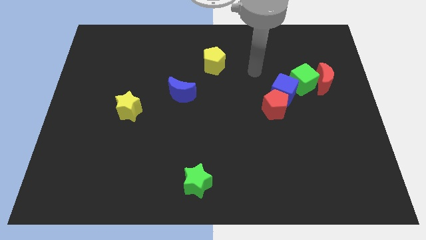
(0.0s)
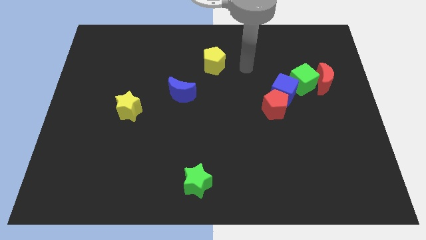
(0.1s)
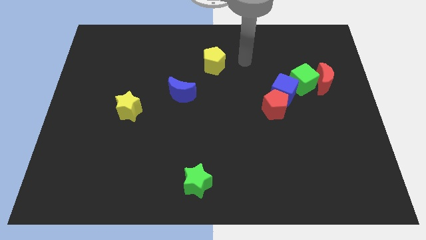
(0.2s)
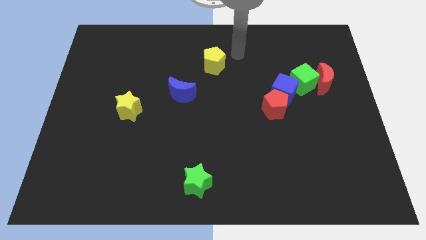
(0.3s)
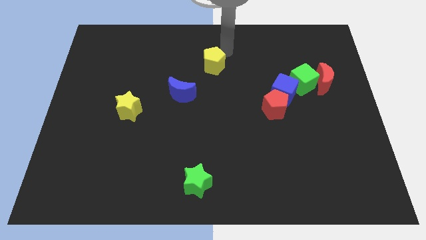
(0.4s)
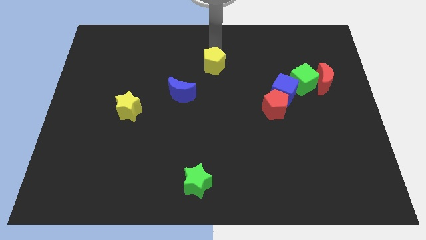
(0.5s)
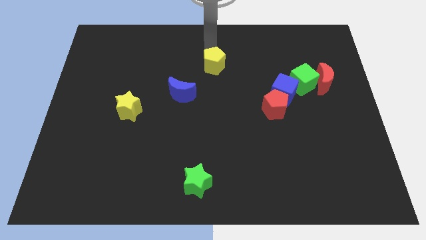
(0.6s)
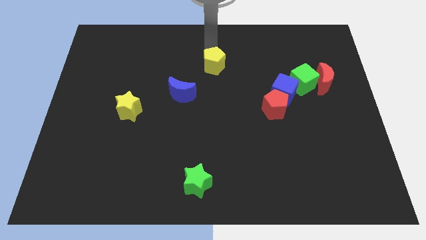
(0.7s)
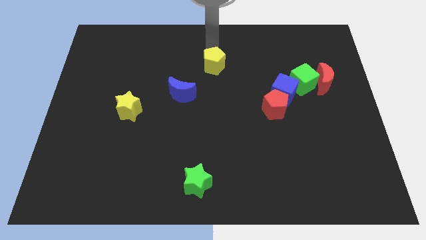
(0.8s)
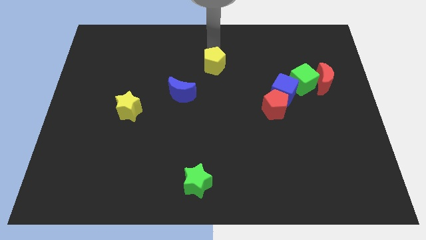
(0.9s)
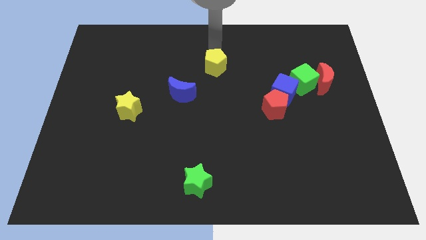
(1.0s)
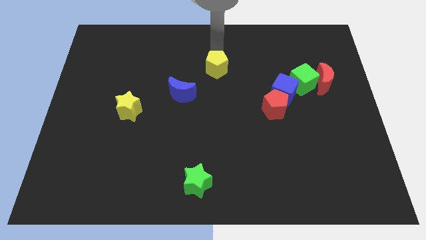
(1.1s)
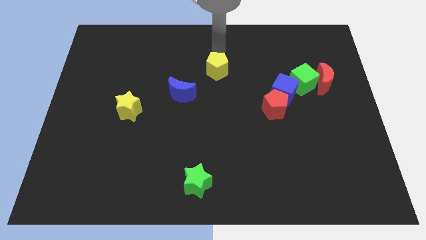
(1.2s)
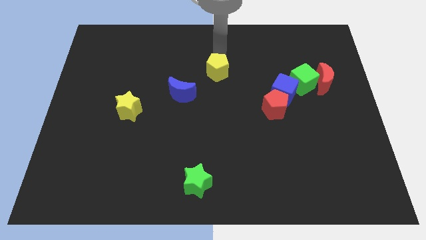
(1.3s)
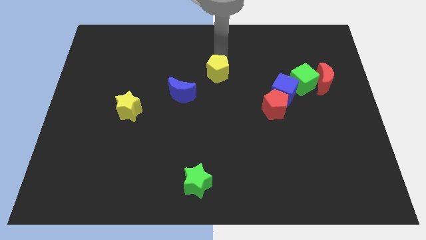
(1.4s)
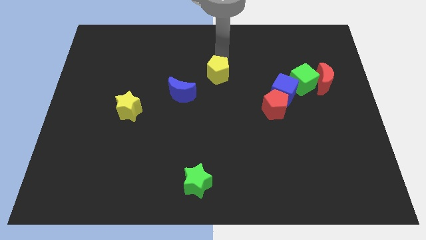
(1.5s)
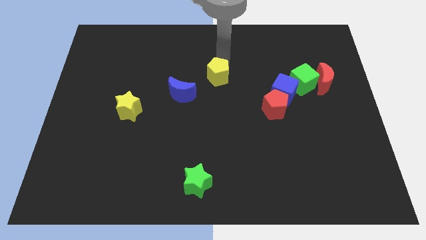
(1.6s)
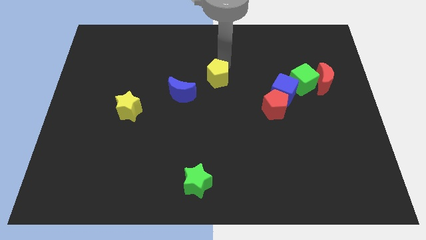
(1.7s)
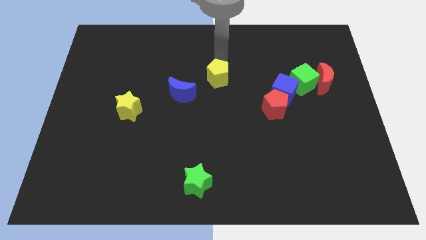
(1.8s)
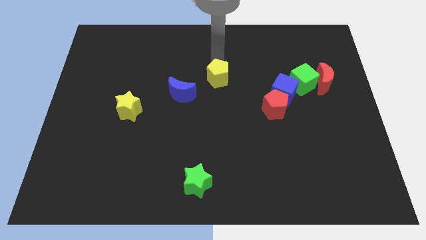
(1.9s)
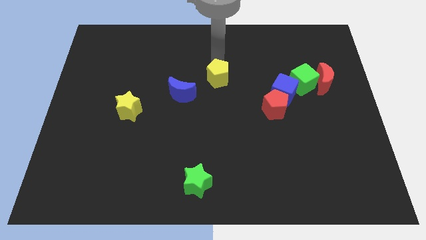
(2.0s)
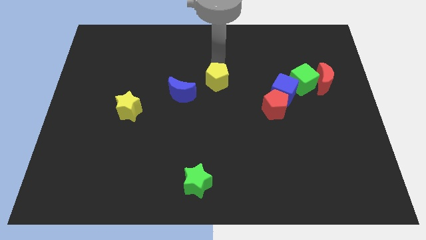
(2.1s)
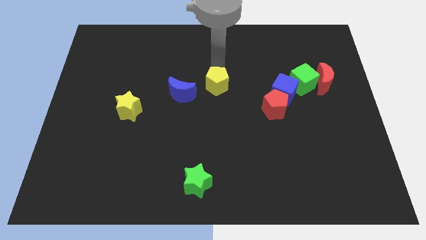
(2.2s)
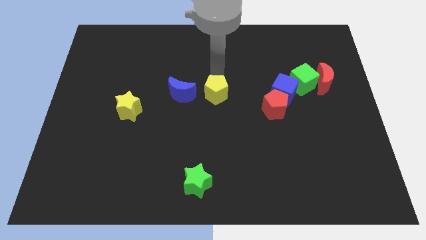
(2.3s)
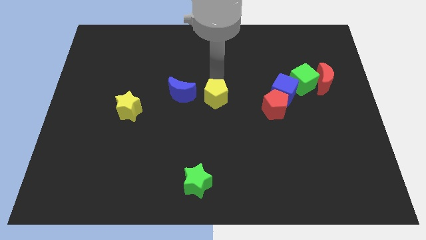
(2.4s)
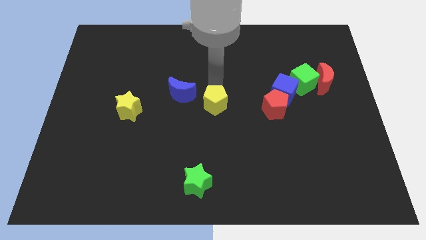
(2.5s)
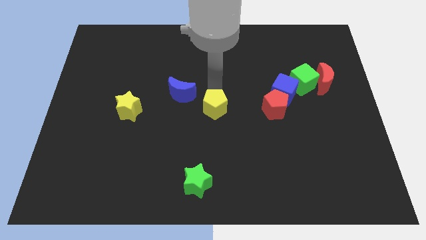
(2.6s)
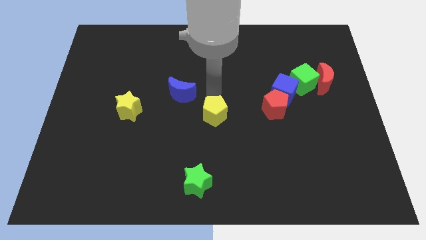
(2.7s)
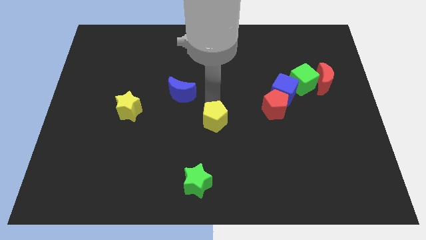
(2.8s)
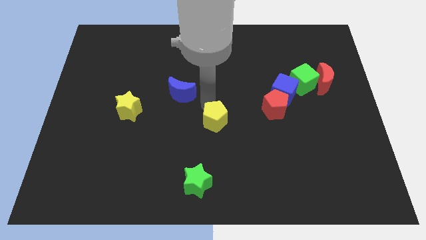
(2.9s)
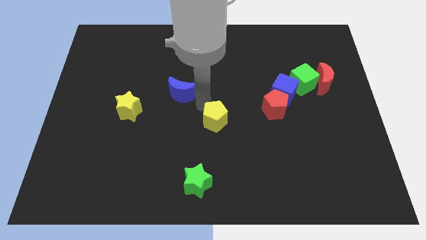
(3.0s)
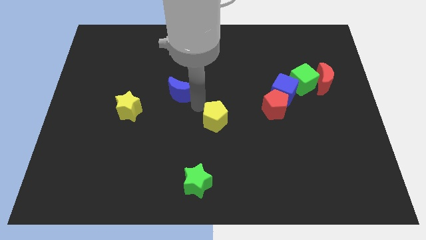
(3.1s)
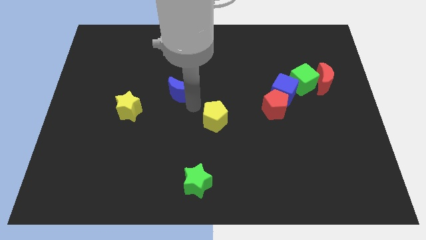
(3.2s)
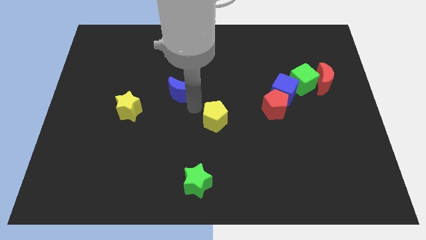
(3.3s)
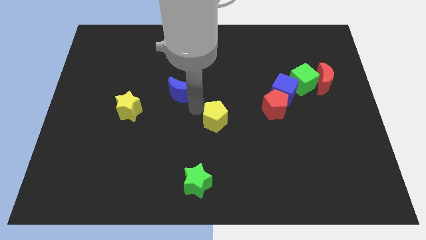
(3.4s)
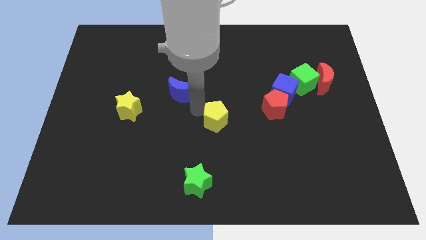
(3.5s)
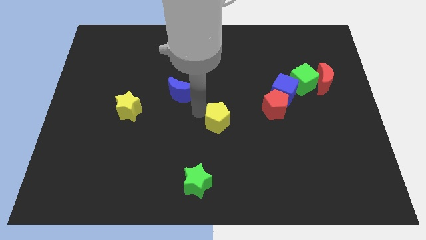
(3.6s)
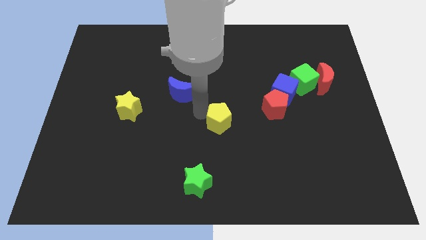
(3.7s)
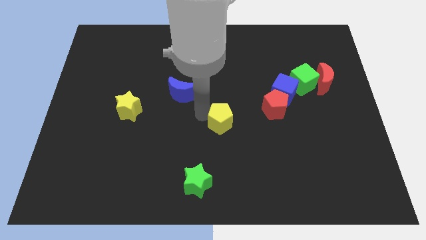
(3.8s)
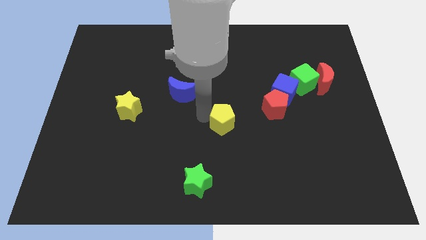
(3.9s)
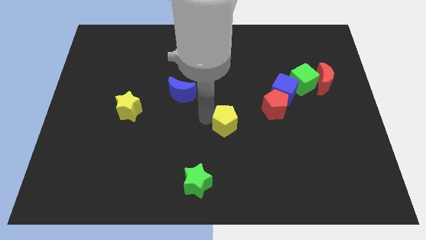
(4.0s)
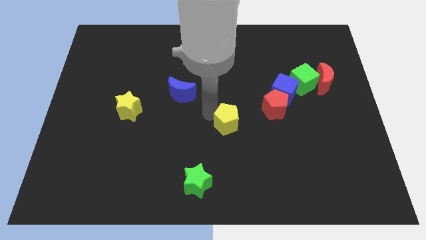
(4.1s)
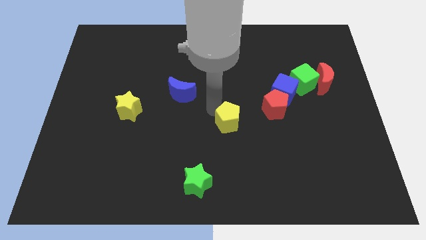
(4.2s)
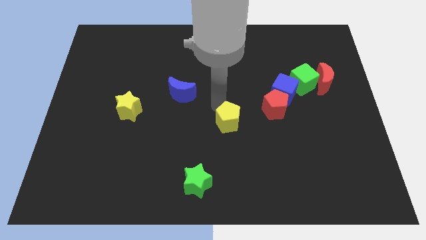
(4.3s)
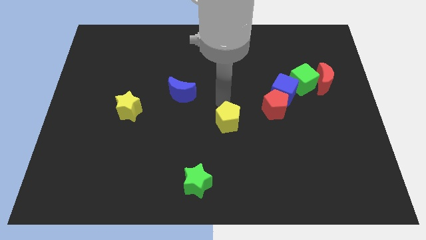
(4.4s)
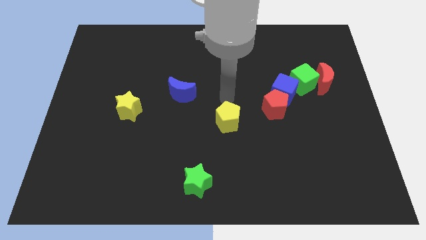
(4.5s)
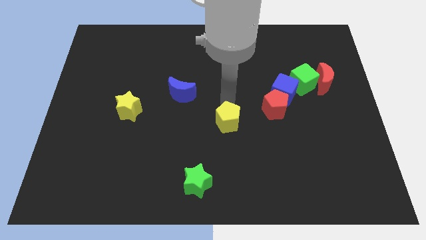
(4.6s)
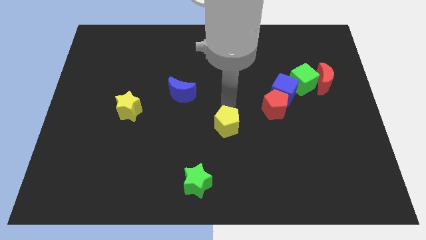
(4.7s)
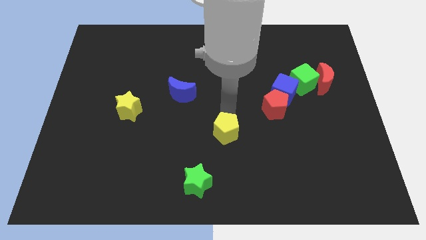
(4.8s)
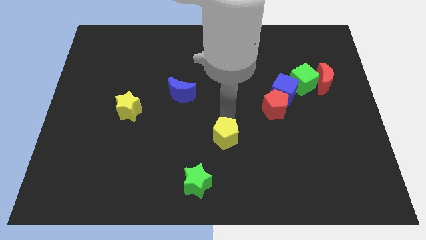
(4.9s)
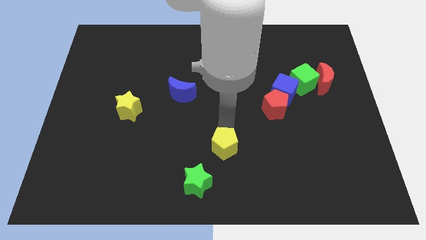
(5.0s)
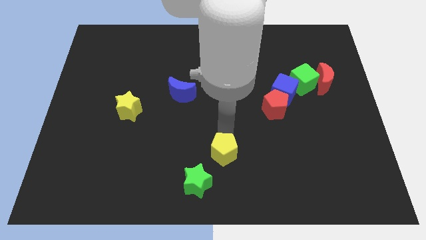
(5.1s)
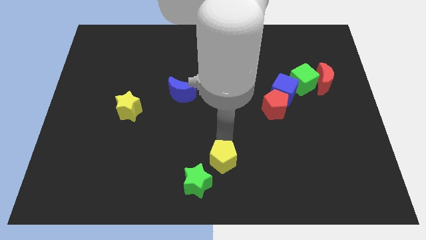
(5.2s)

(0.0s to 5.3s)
move the yellow pentagon to the bottom
